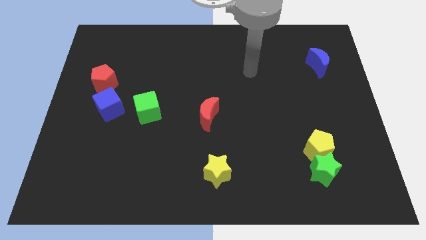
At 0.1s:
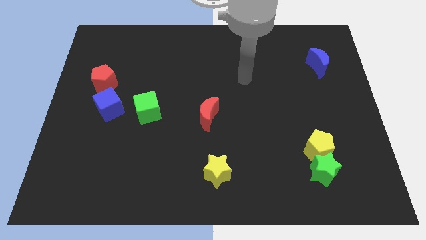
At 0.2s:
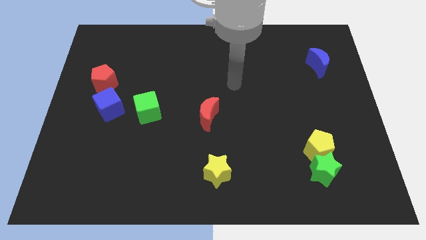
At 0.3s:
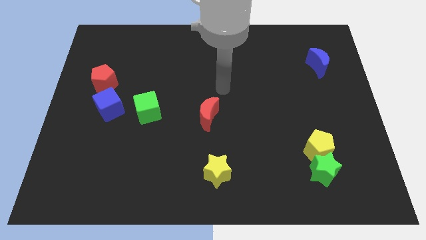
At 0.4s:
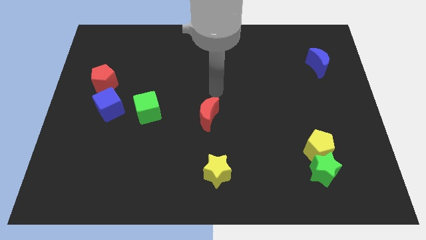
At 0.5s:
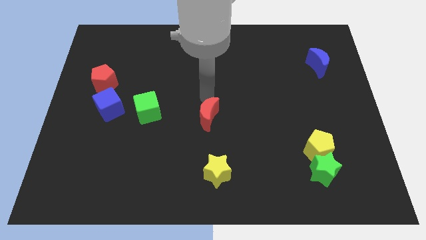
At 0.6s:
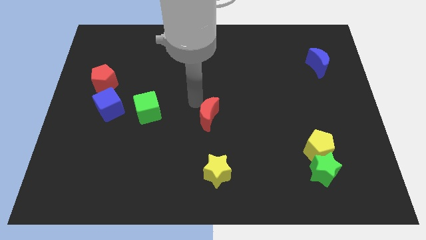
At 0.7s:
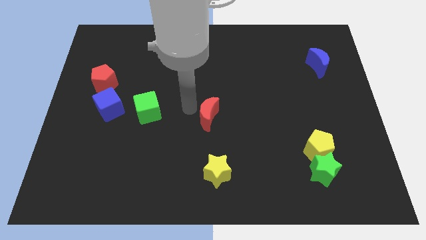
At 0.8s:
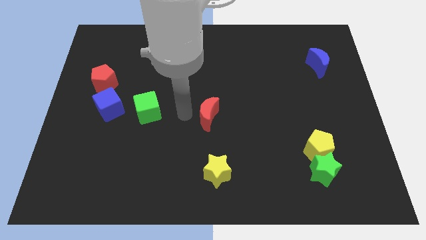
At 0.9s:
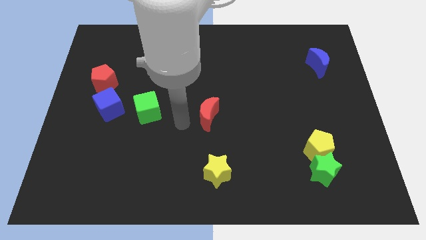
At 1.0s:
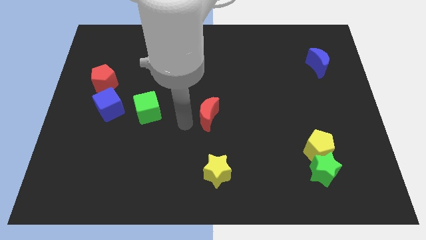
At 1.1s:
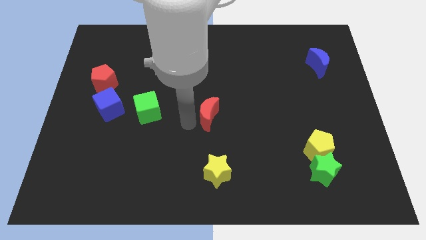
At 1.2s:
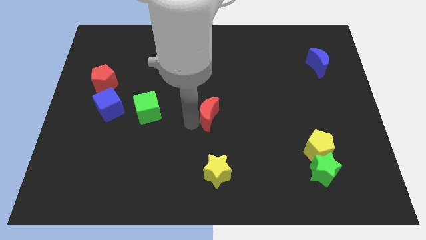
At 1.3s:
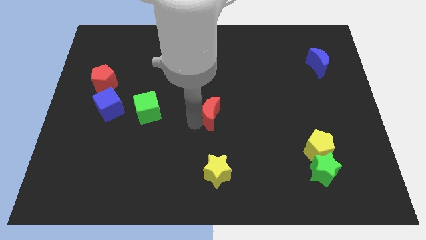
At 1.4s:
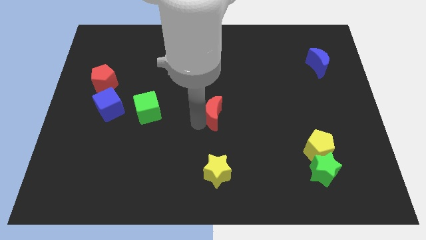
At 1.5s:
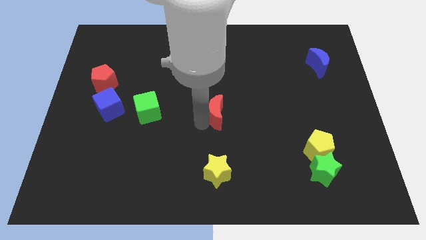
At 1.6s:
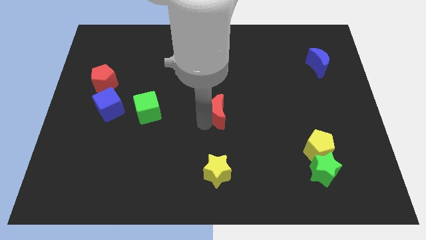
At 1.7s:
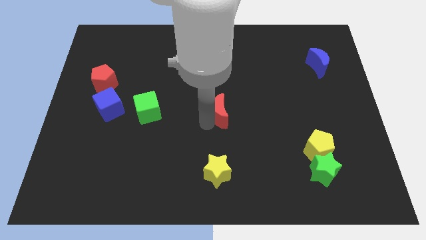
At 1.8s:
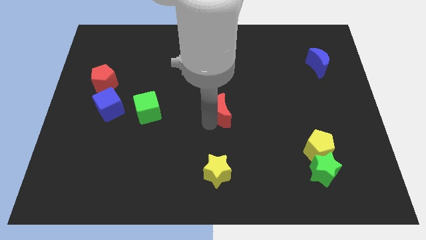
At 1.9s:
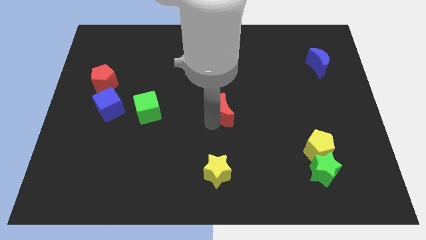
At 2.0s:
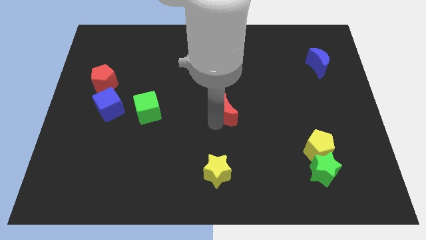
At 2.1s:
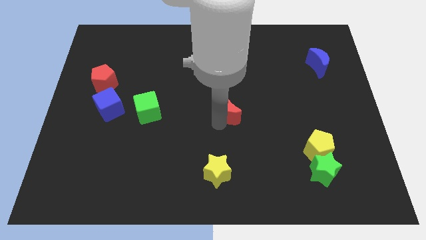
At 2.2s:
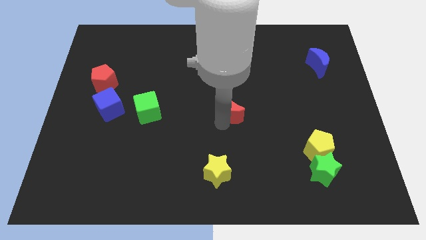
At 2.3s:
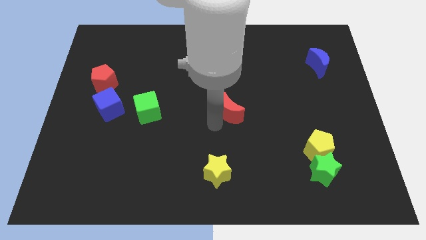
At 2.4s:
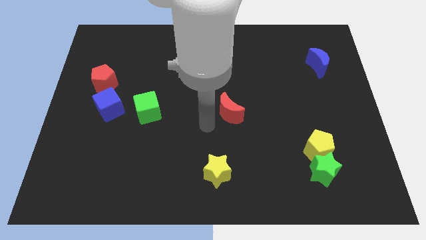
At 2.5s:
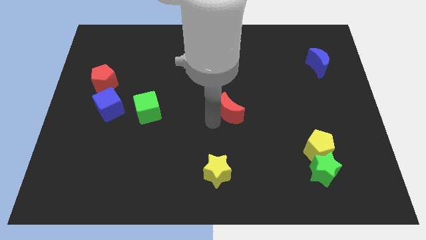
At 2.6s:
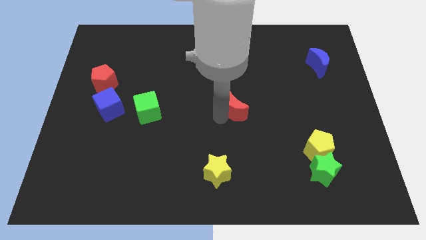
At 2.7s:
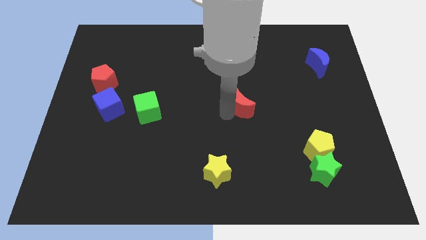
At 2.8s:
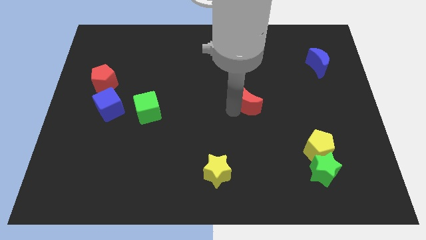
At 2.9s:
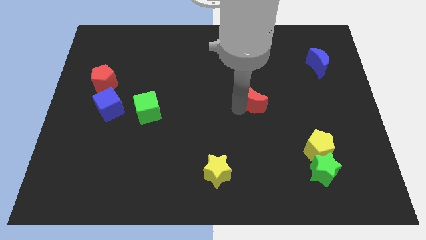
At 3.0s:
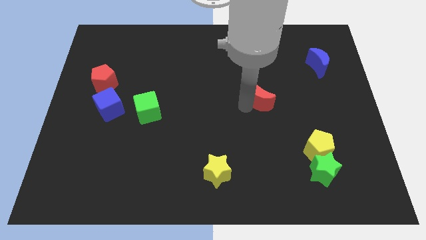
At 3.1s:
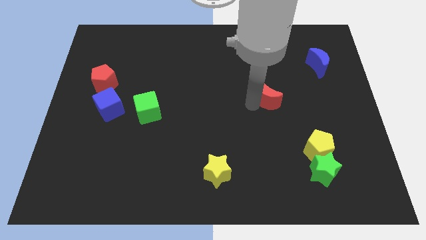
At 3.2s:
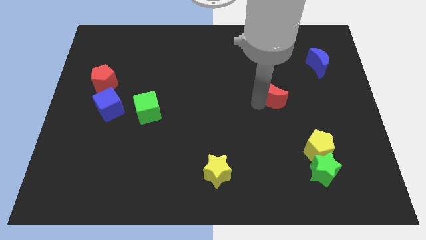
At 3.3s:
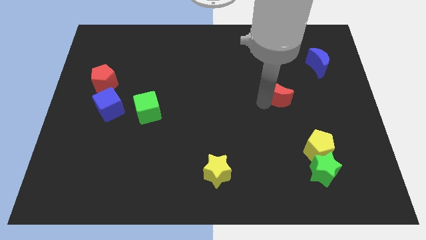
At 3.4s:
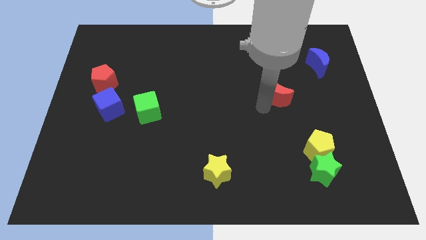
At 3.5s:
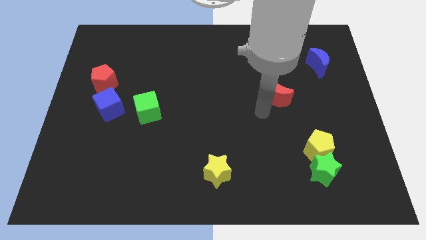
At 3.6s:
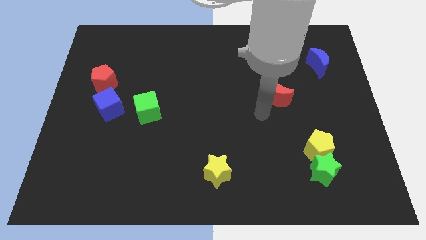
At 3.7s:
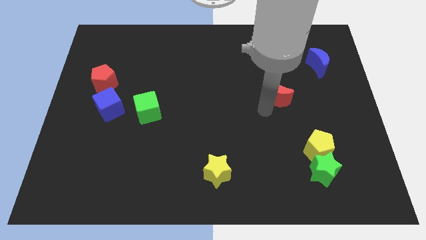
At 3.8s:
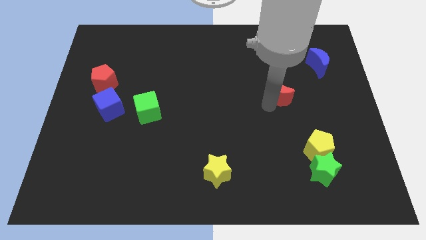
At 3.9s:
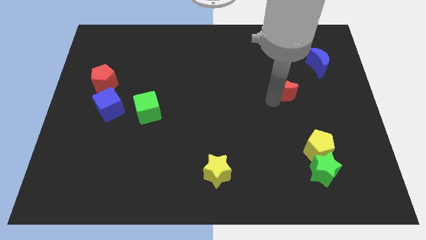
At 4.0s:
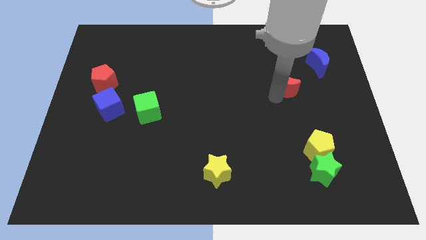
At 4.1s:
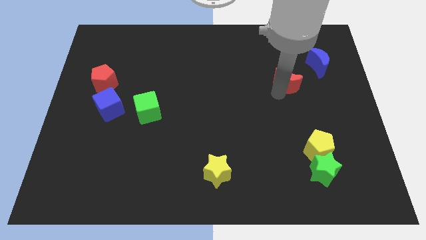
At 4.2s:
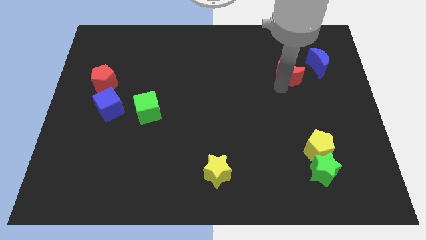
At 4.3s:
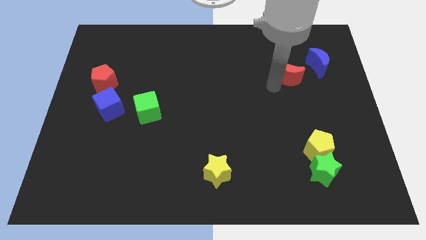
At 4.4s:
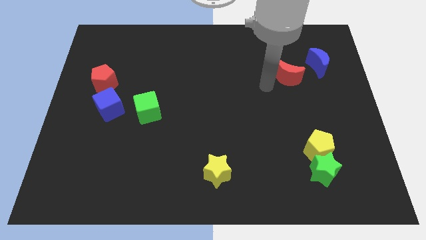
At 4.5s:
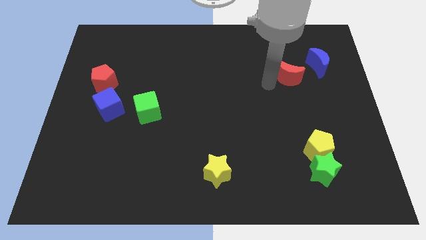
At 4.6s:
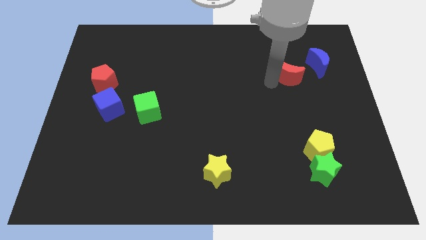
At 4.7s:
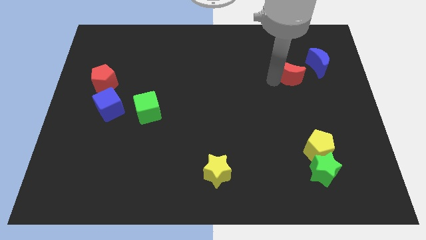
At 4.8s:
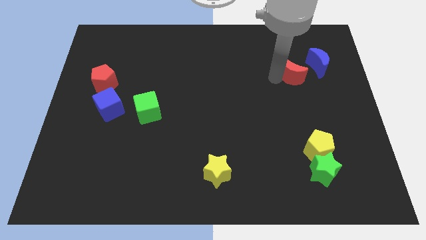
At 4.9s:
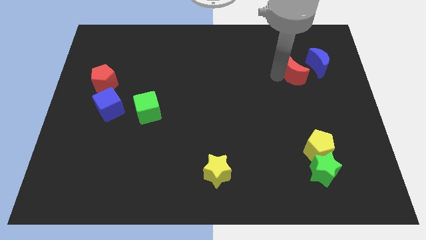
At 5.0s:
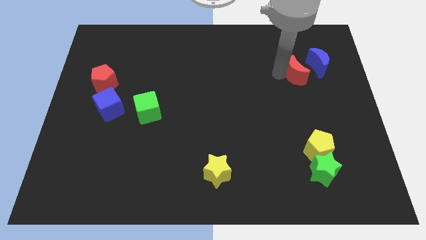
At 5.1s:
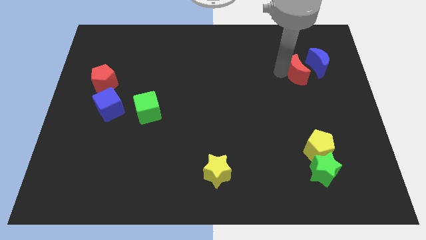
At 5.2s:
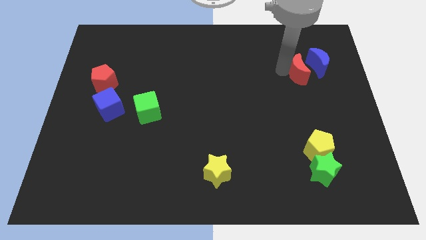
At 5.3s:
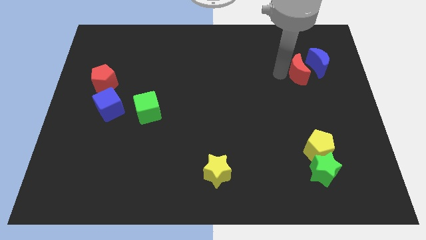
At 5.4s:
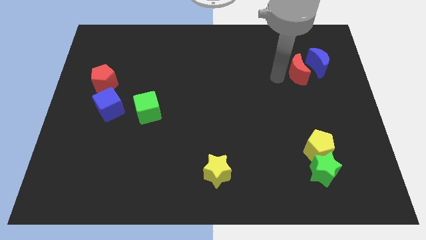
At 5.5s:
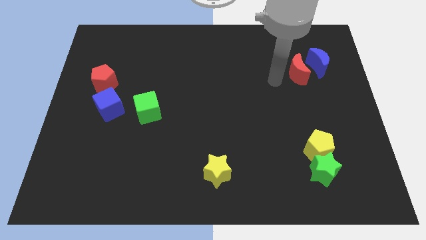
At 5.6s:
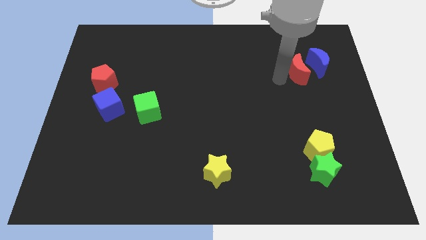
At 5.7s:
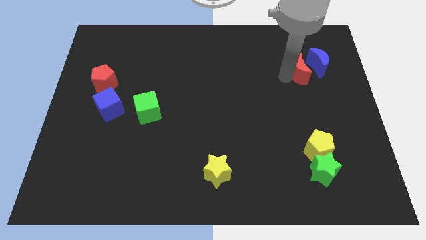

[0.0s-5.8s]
move the red moon towards the blue moon

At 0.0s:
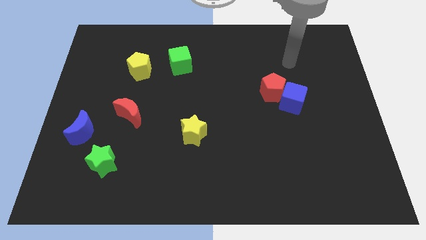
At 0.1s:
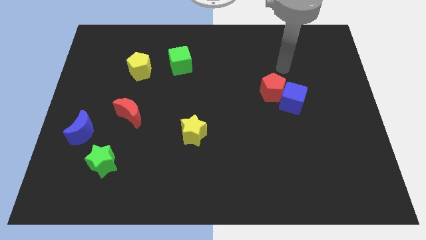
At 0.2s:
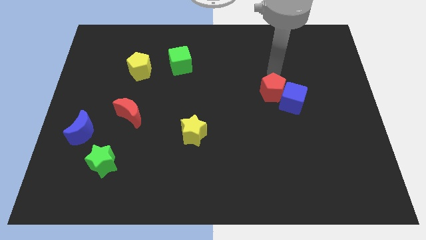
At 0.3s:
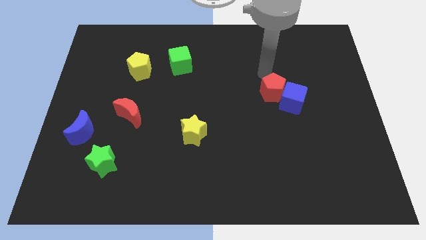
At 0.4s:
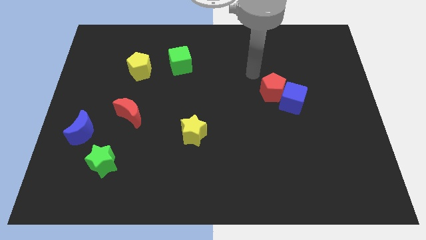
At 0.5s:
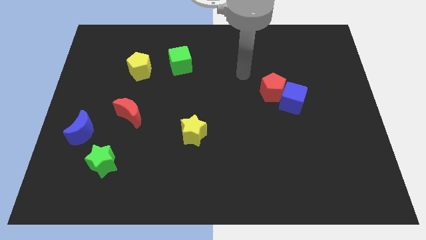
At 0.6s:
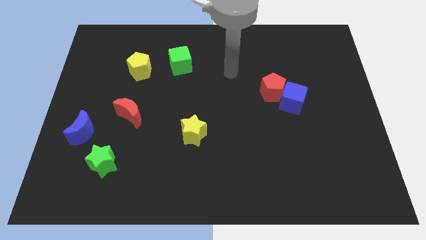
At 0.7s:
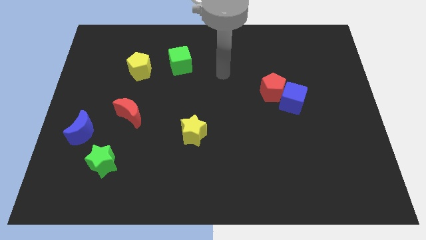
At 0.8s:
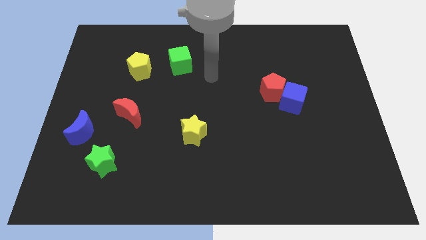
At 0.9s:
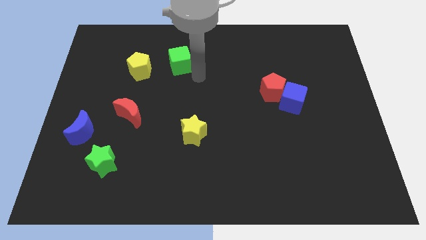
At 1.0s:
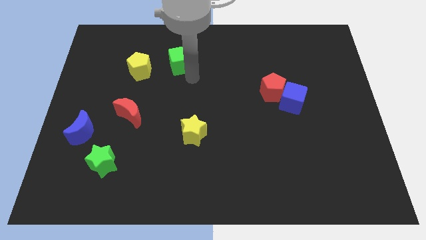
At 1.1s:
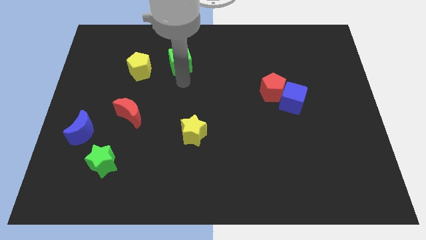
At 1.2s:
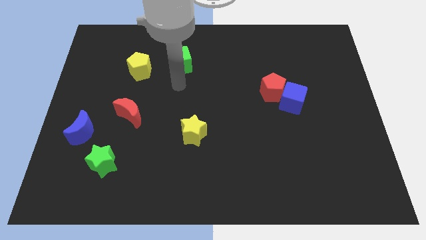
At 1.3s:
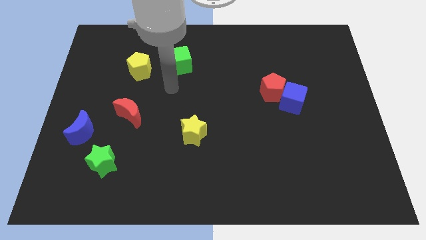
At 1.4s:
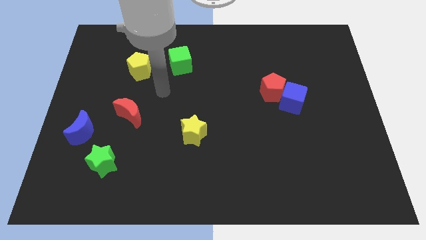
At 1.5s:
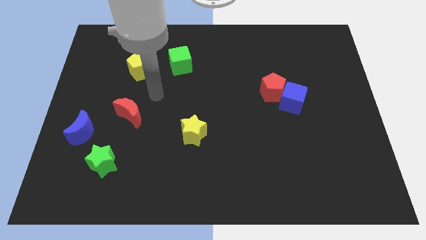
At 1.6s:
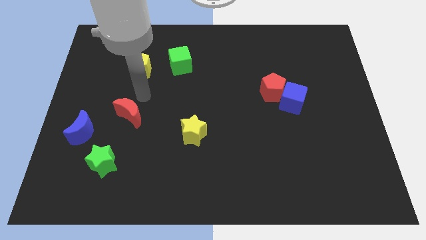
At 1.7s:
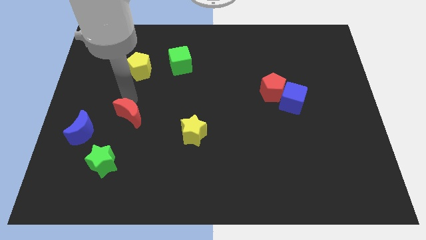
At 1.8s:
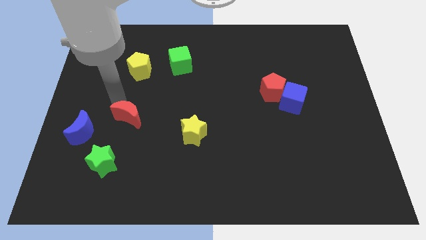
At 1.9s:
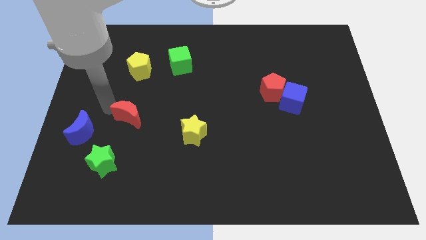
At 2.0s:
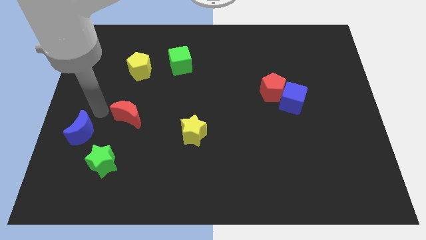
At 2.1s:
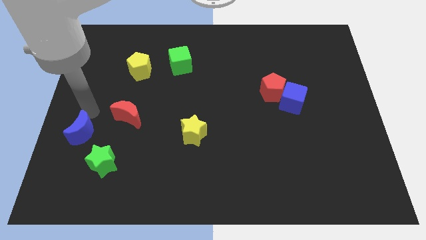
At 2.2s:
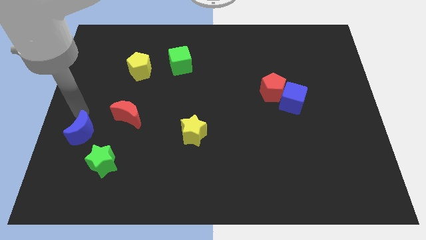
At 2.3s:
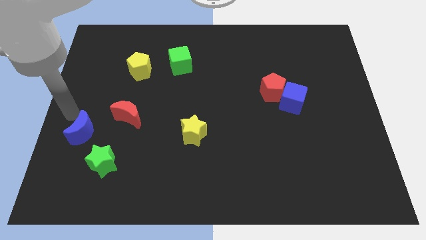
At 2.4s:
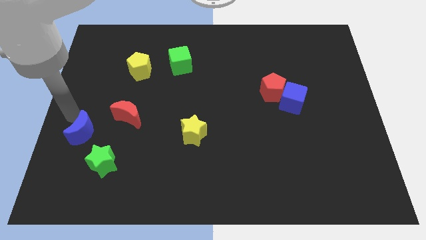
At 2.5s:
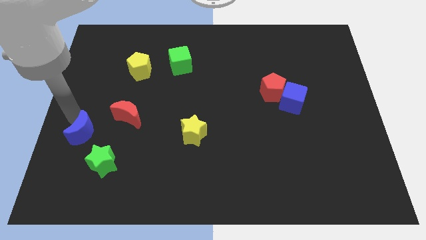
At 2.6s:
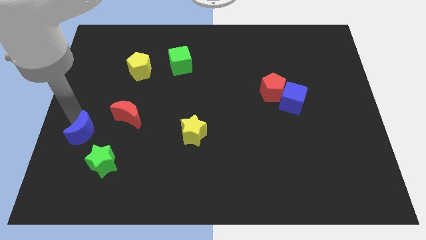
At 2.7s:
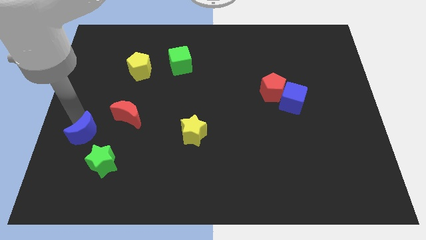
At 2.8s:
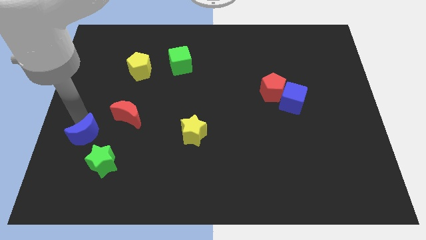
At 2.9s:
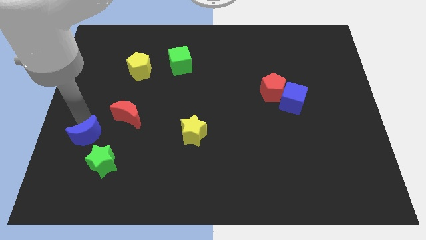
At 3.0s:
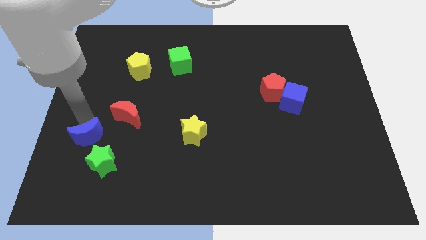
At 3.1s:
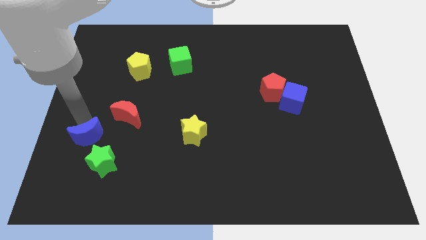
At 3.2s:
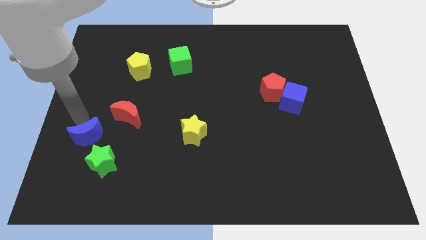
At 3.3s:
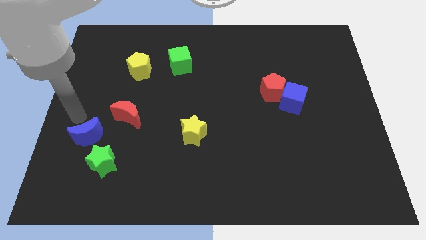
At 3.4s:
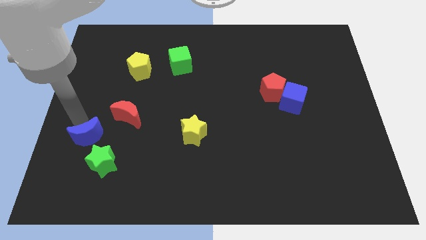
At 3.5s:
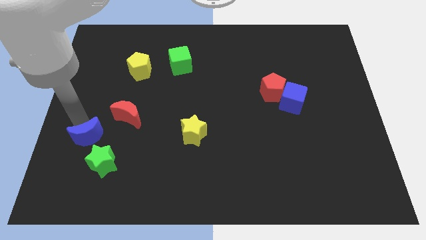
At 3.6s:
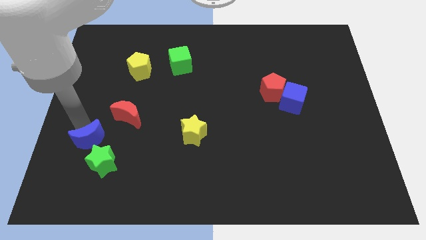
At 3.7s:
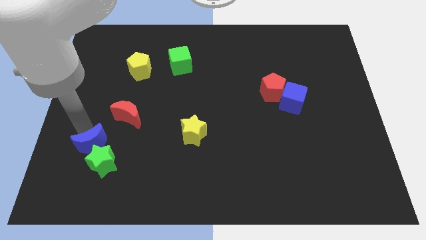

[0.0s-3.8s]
move the blue moon next to the green star
